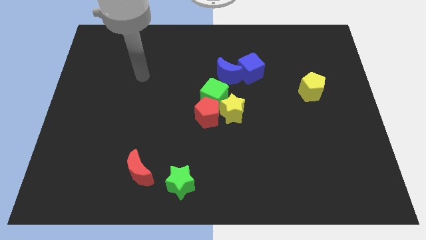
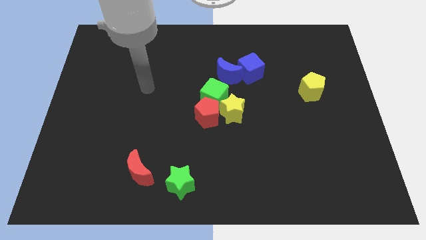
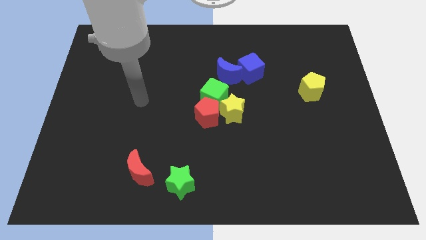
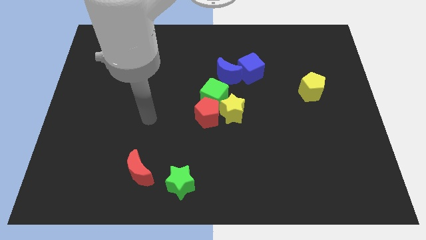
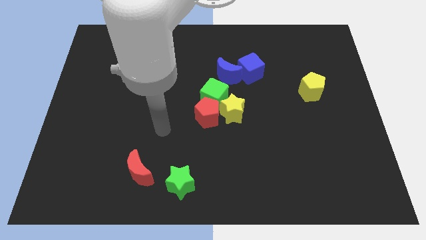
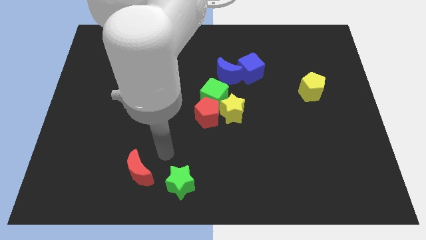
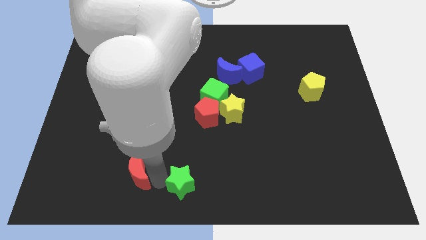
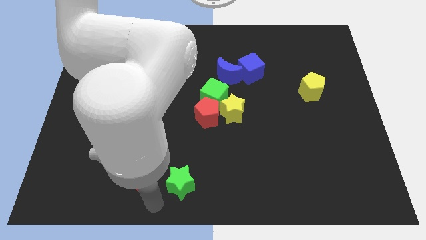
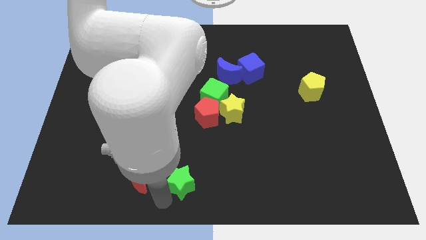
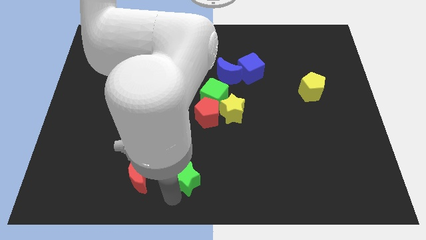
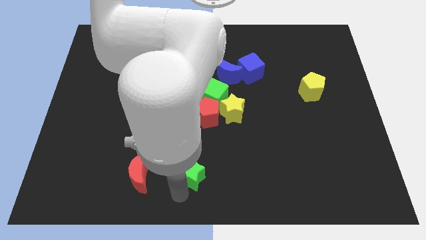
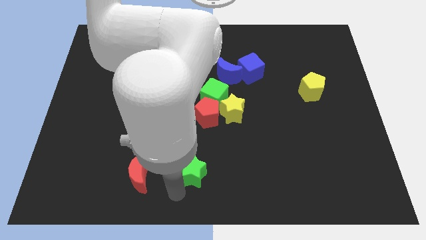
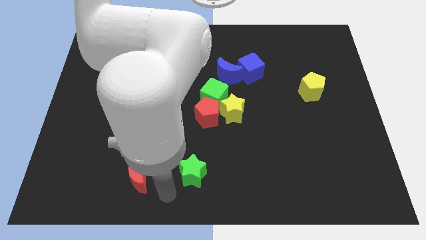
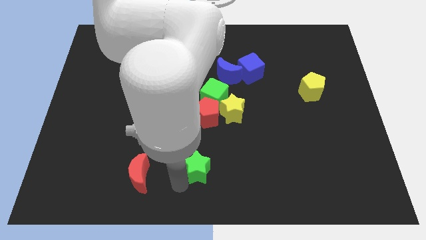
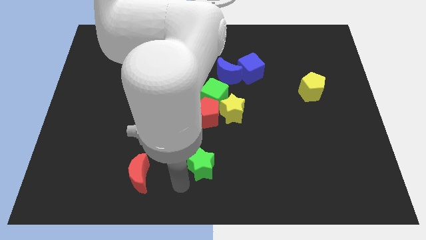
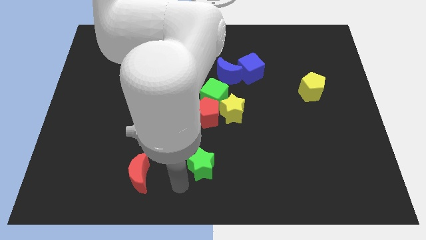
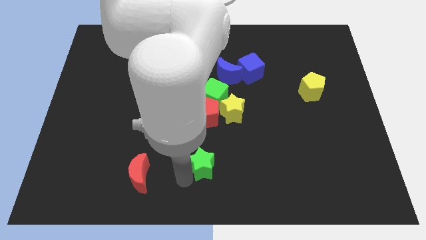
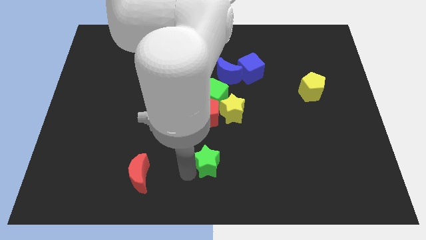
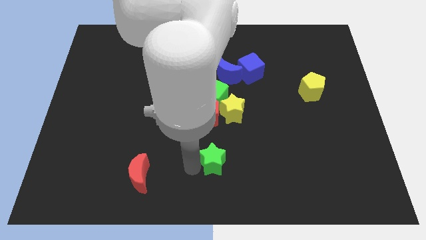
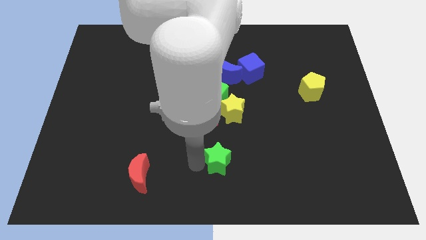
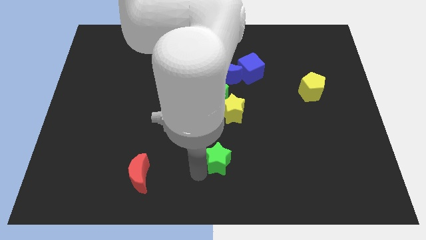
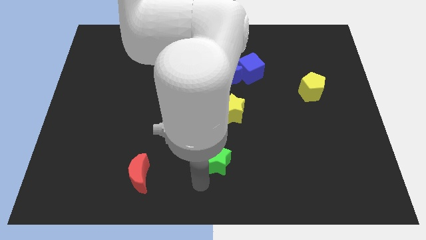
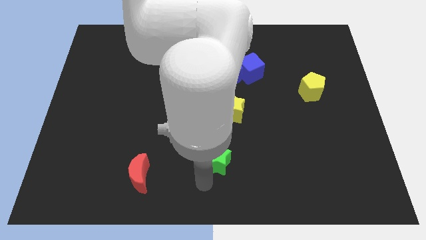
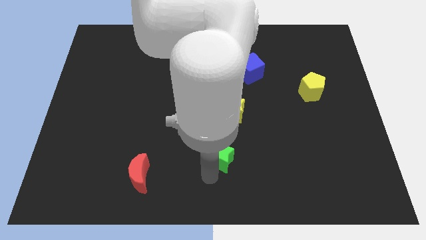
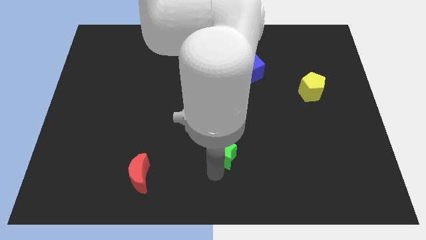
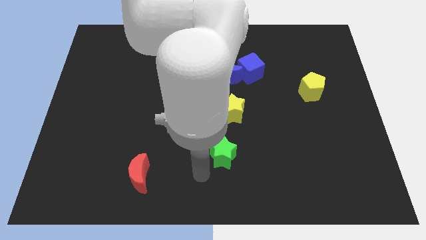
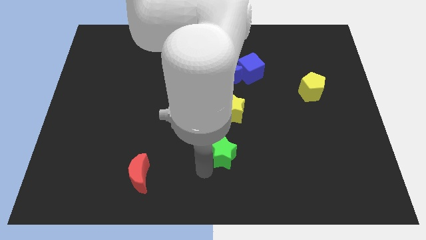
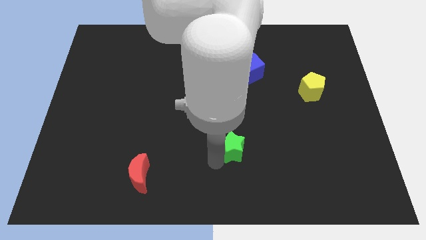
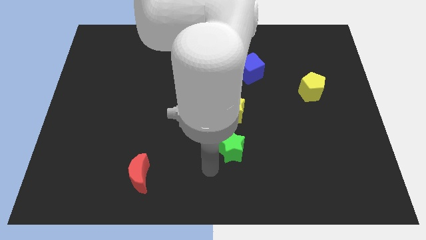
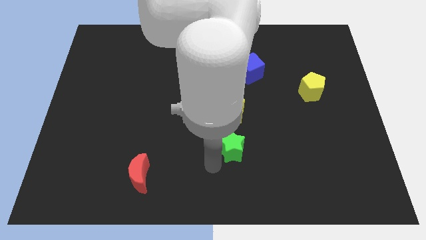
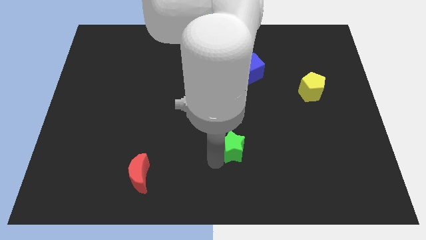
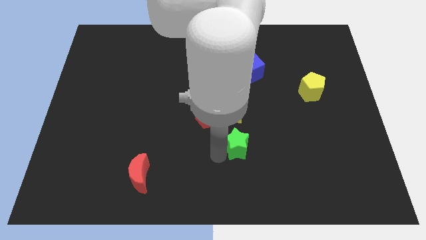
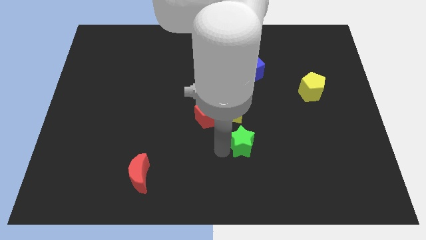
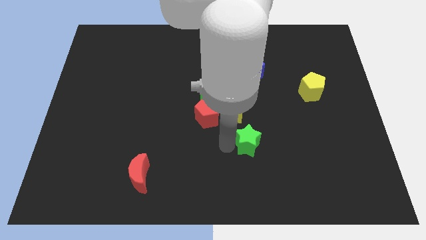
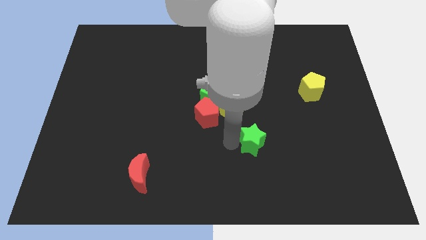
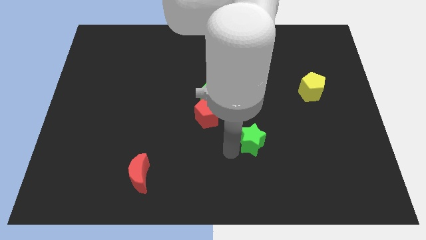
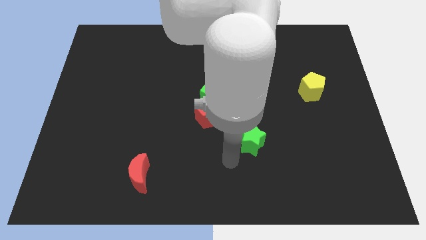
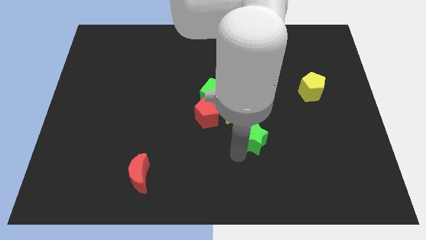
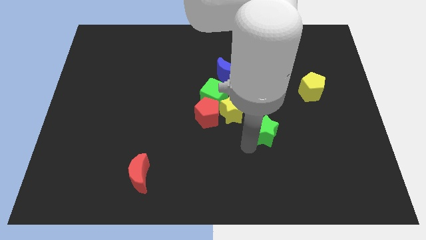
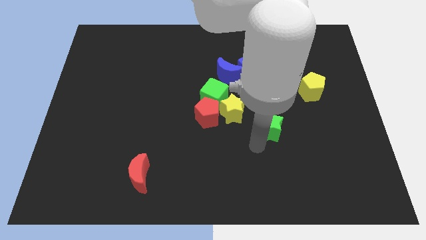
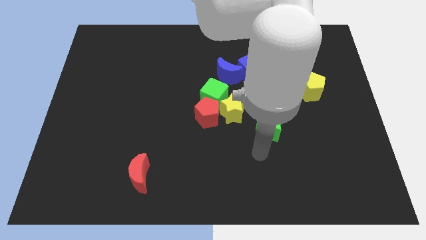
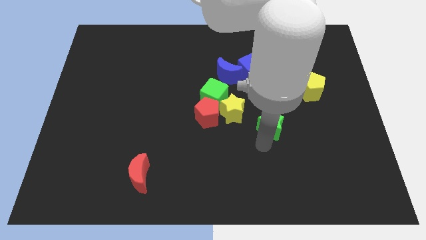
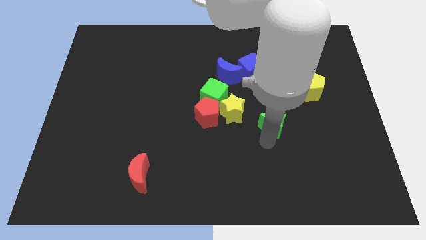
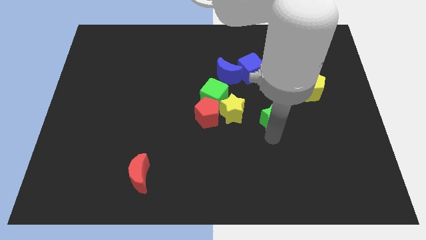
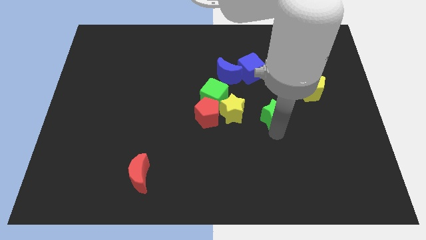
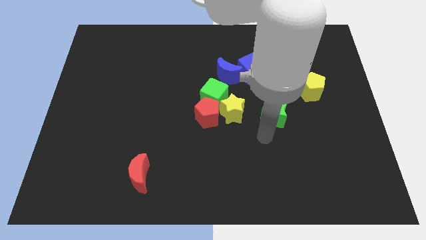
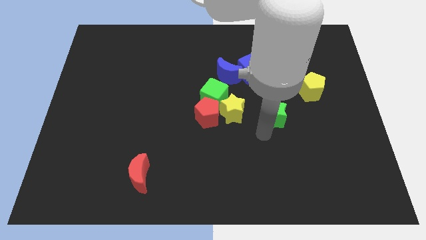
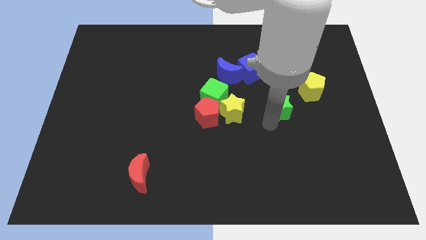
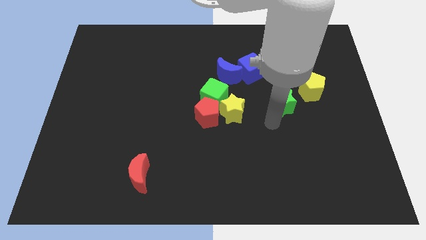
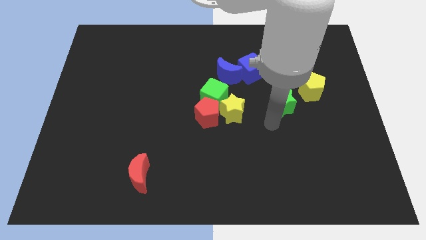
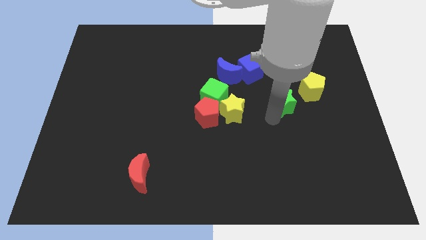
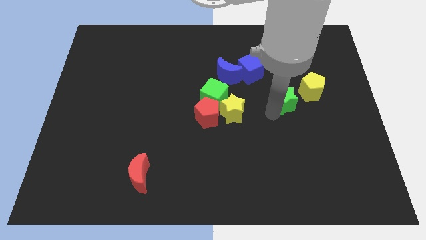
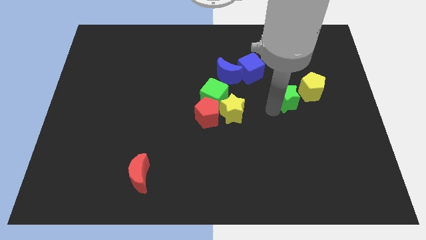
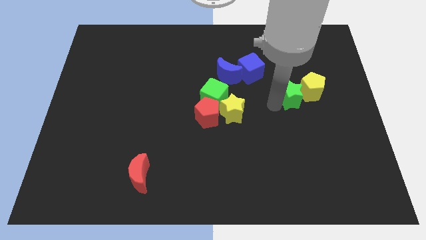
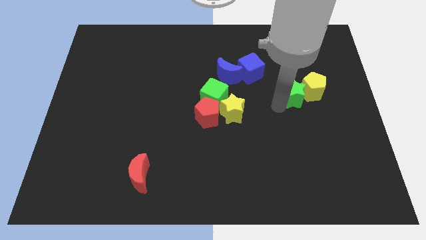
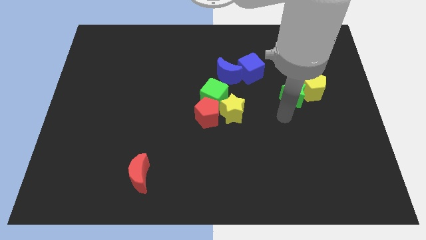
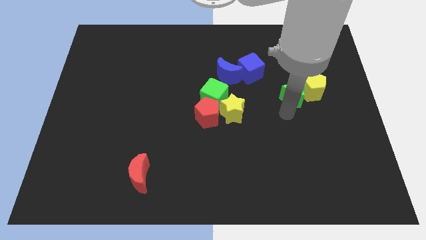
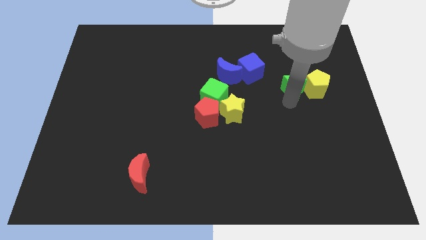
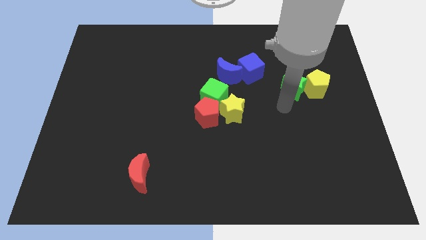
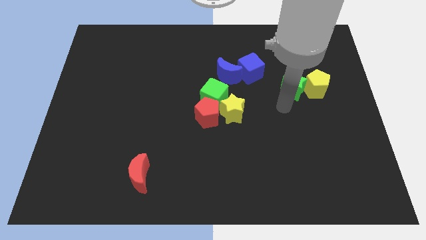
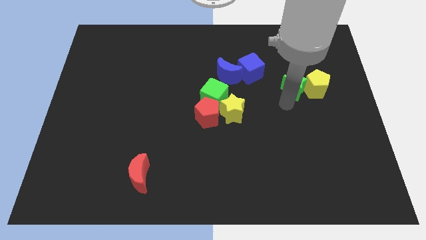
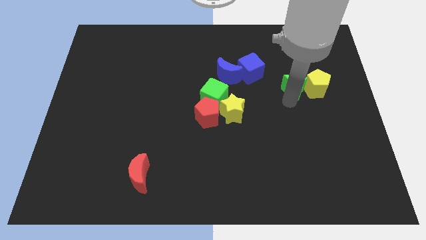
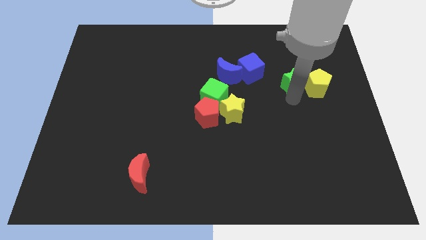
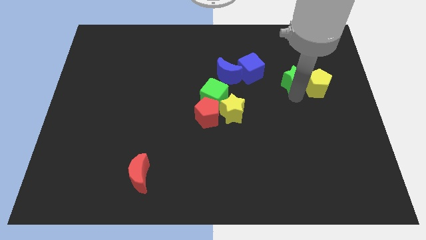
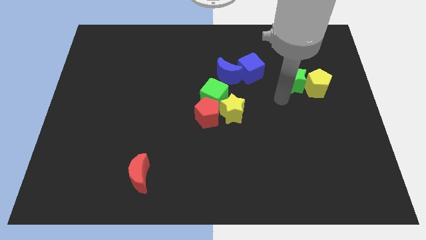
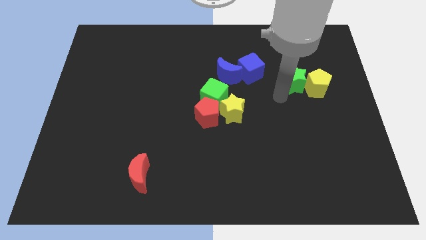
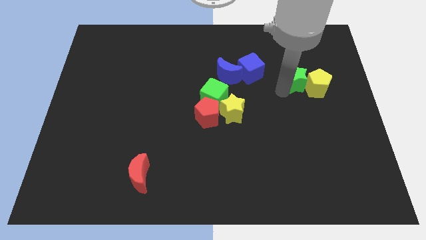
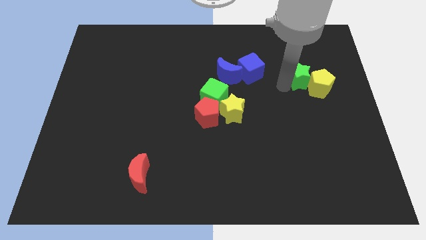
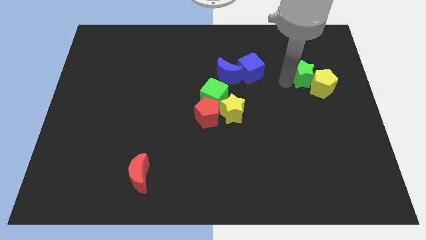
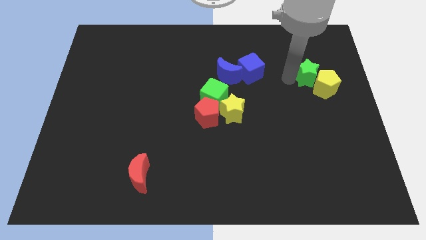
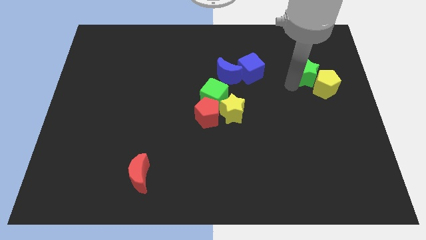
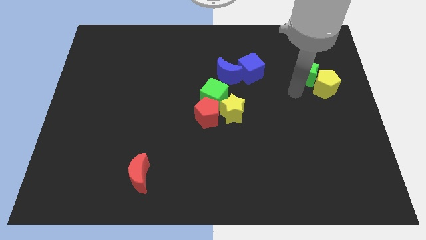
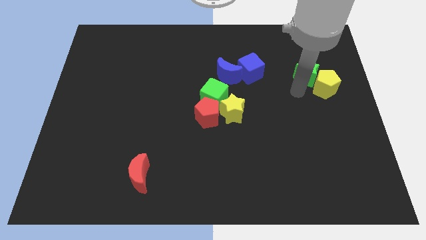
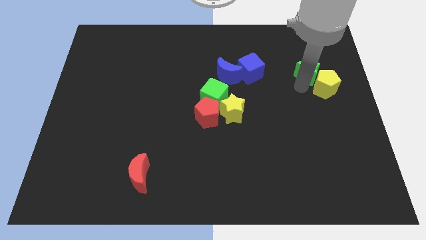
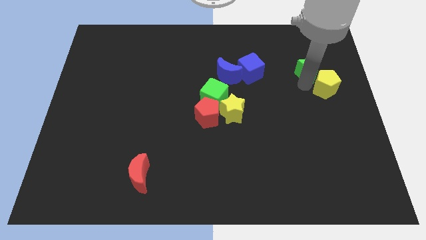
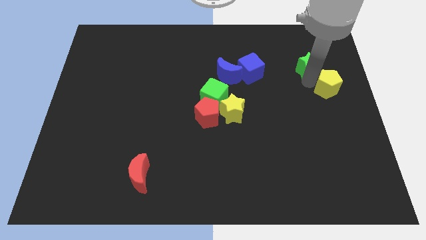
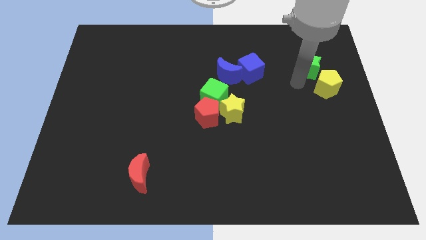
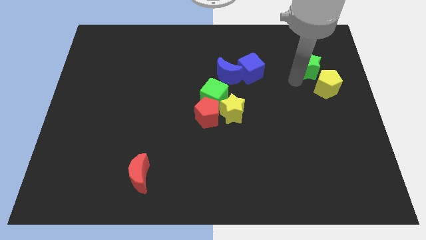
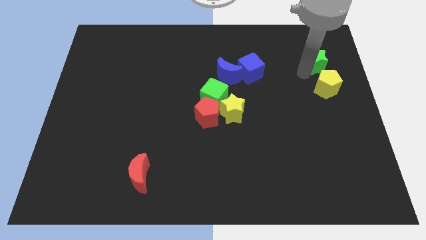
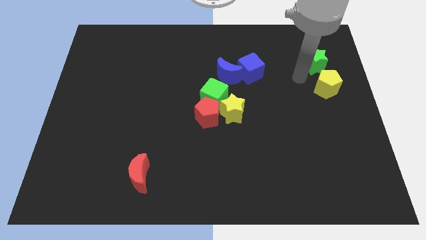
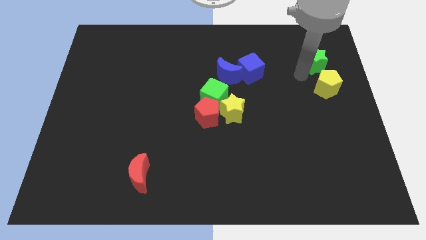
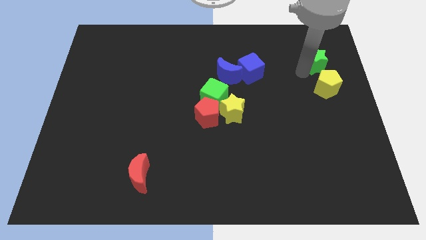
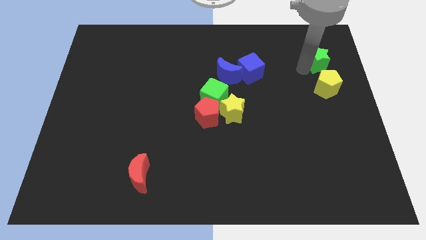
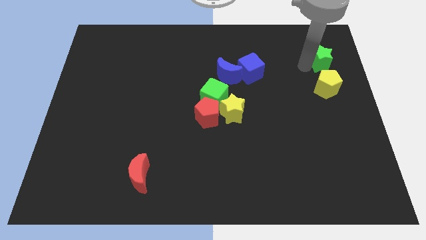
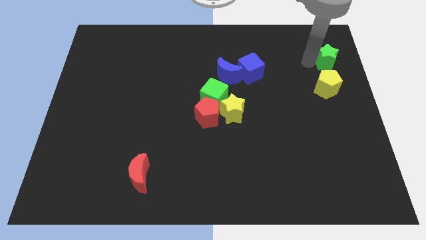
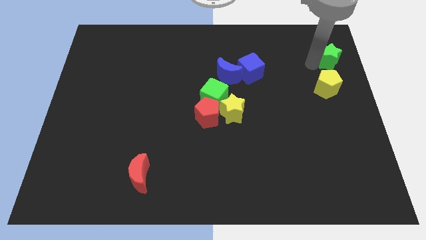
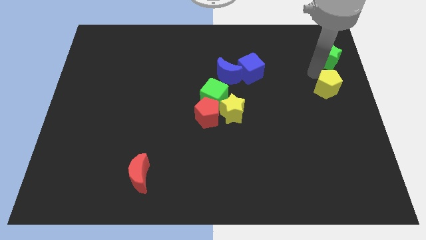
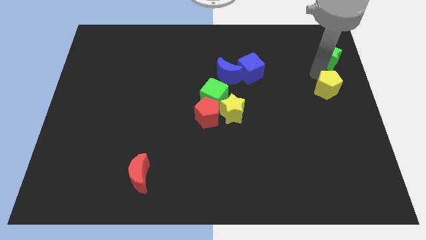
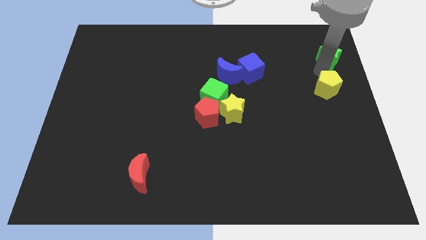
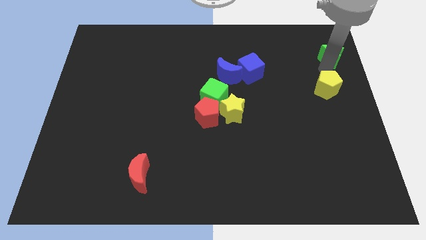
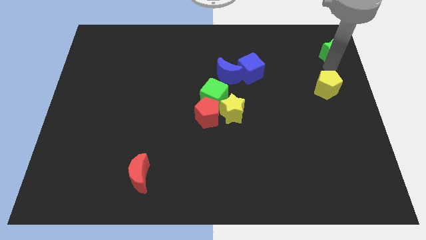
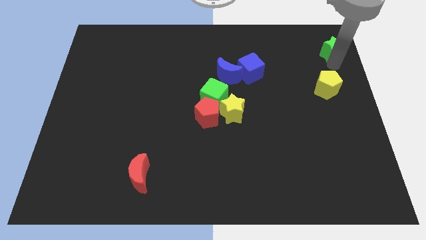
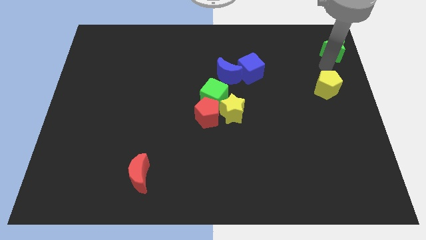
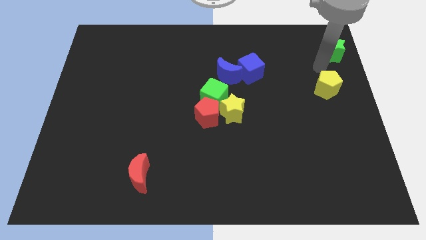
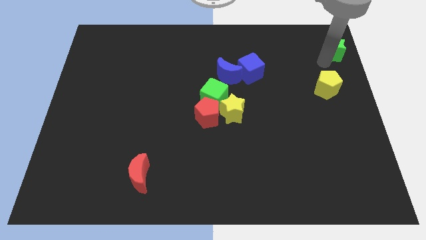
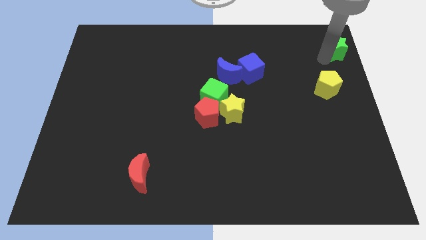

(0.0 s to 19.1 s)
push the green star to the upper right corner
